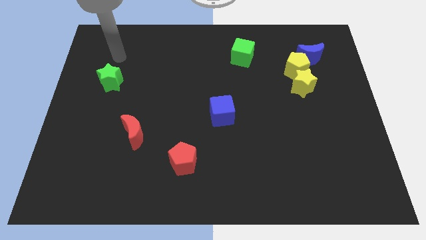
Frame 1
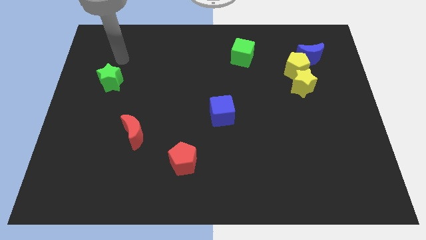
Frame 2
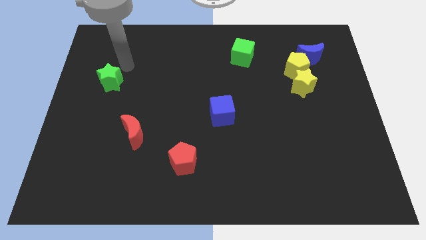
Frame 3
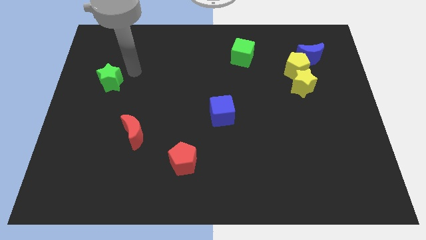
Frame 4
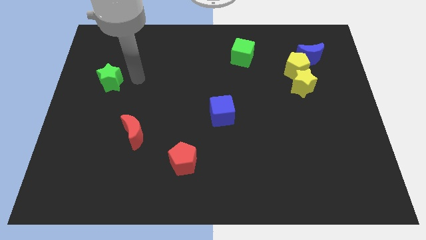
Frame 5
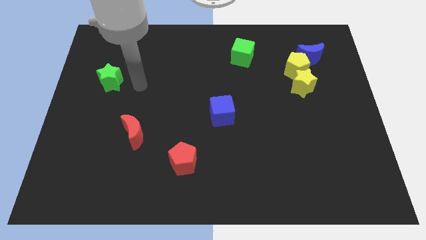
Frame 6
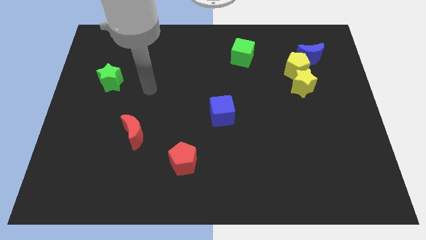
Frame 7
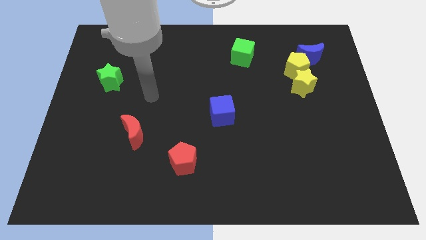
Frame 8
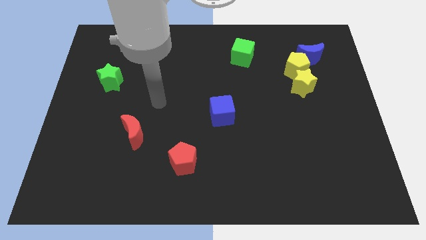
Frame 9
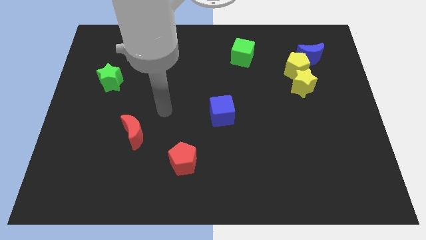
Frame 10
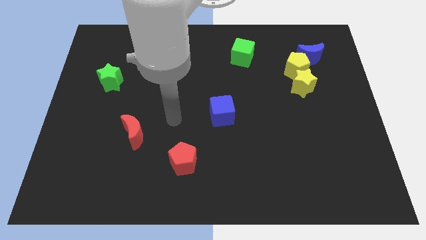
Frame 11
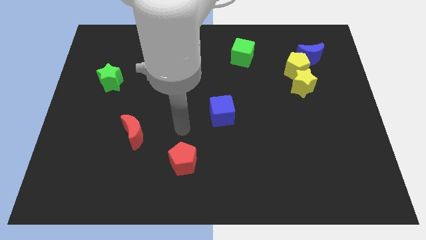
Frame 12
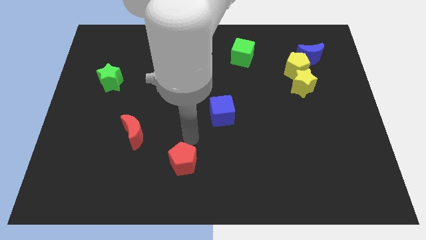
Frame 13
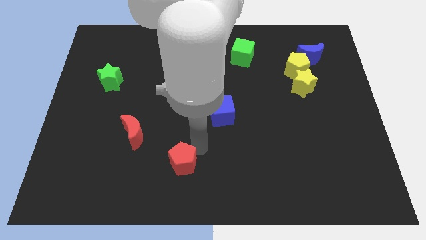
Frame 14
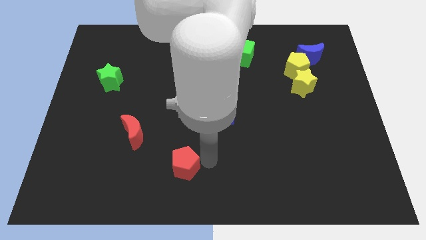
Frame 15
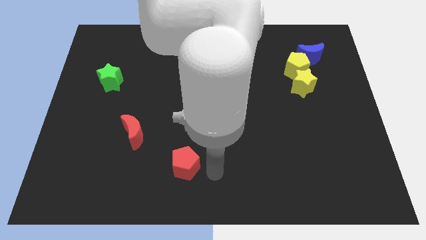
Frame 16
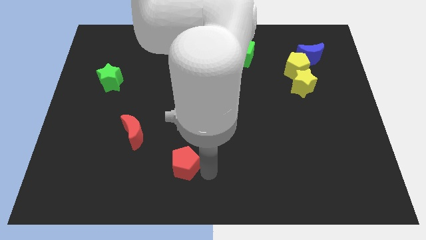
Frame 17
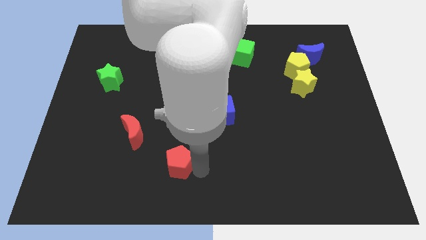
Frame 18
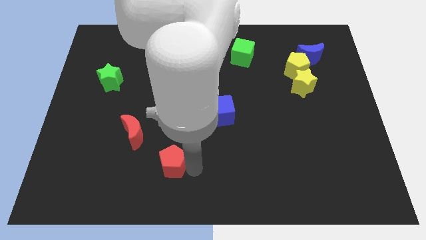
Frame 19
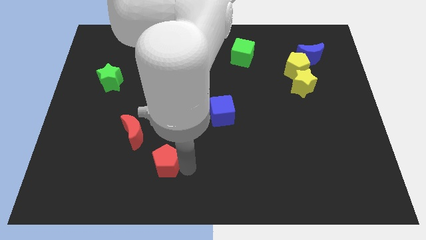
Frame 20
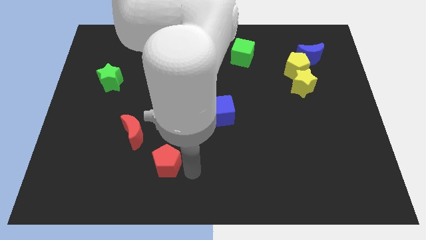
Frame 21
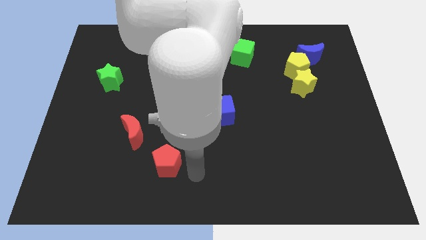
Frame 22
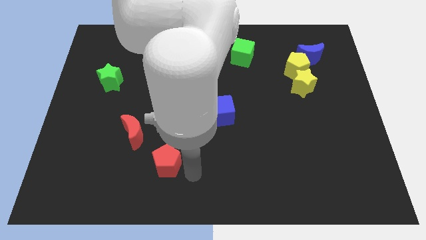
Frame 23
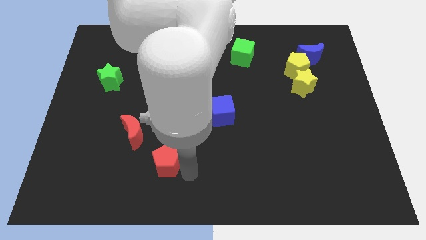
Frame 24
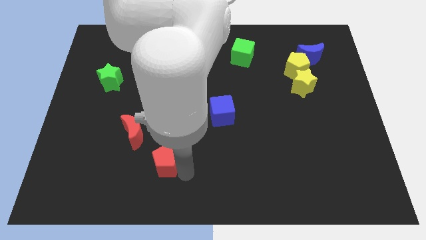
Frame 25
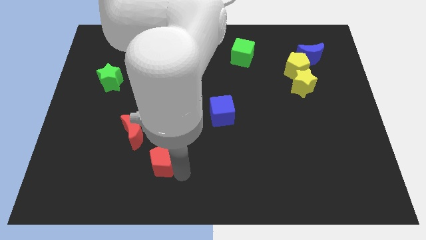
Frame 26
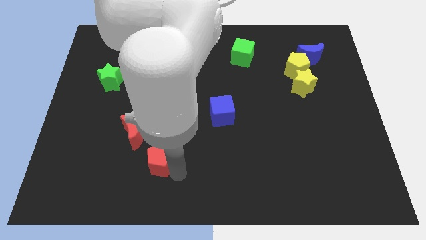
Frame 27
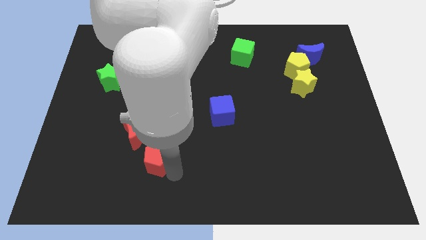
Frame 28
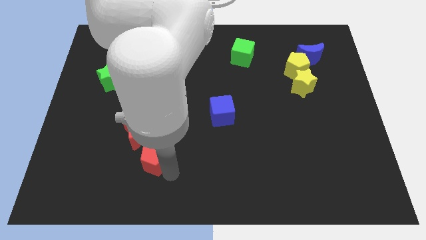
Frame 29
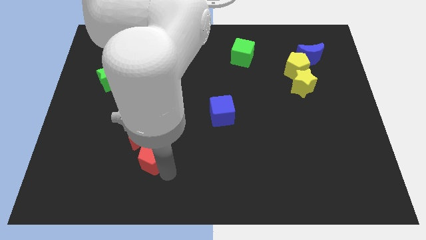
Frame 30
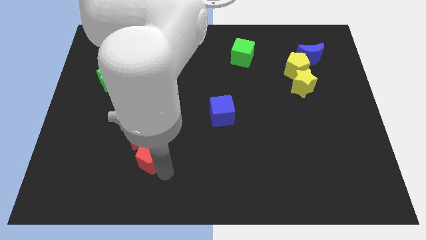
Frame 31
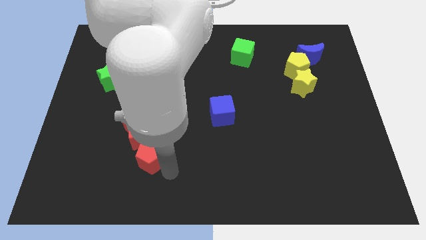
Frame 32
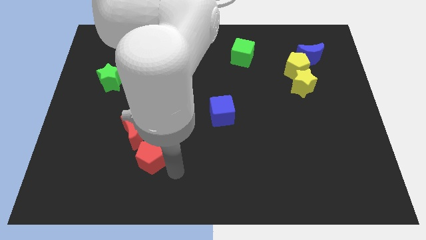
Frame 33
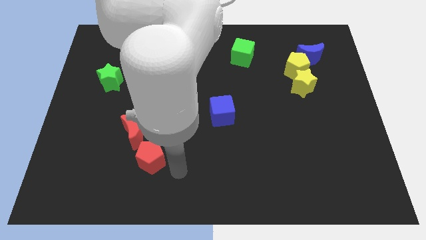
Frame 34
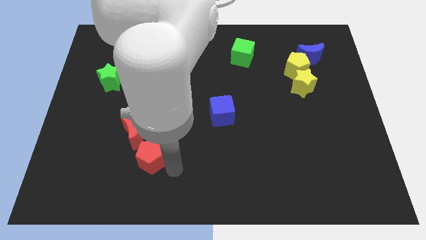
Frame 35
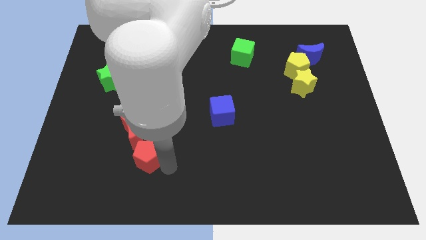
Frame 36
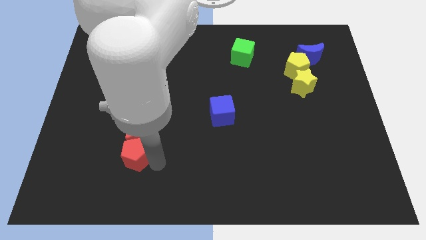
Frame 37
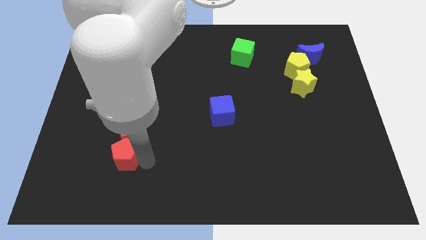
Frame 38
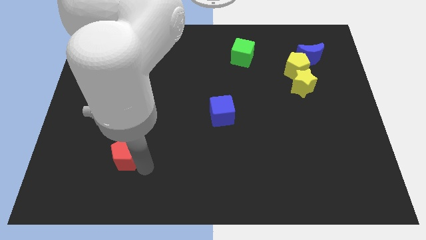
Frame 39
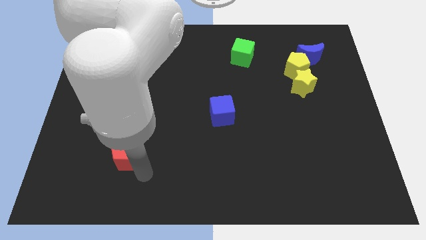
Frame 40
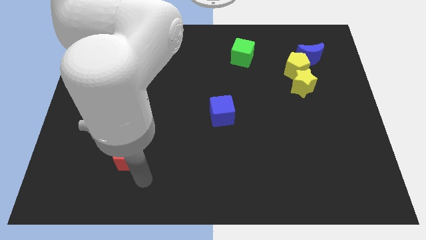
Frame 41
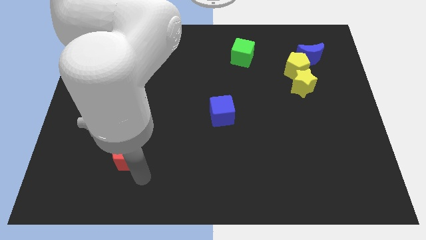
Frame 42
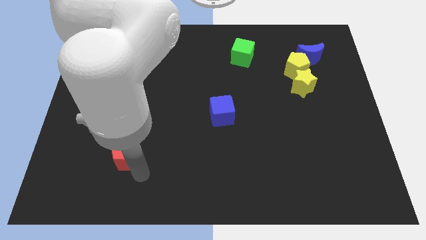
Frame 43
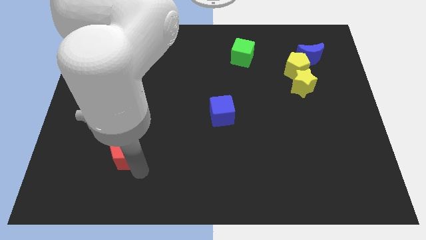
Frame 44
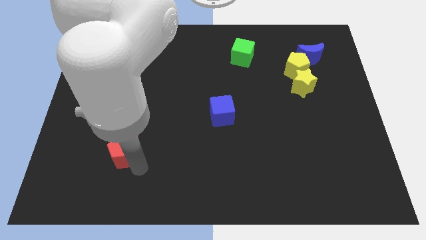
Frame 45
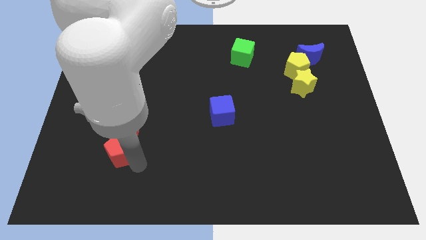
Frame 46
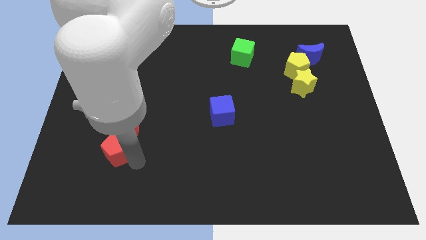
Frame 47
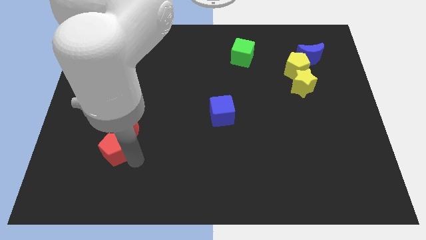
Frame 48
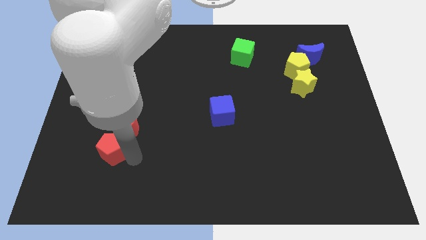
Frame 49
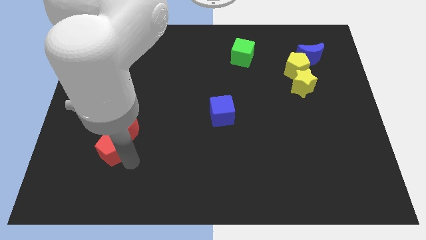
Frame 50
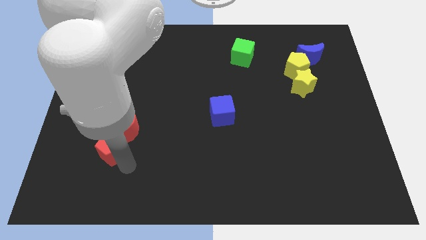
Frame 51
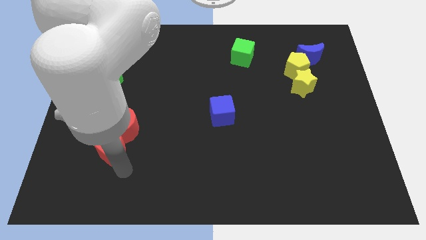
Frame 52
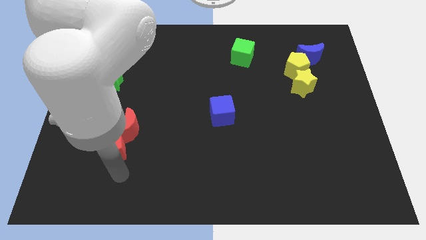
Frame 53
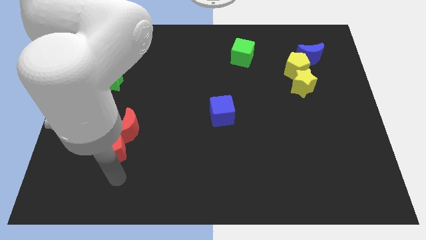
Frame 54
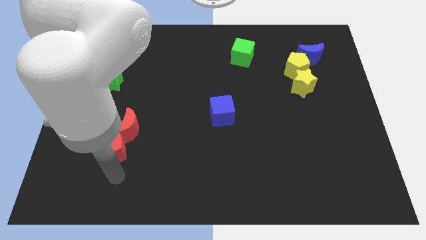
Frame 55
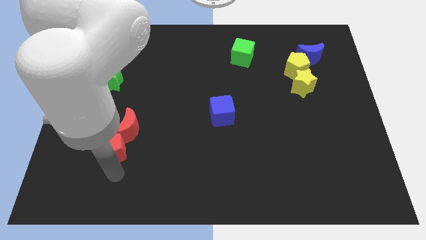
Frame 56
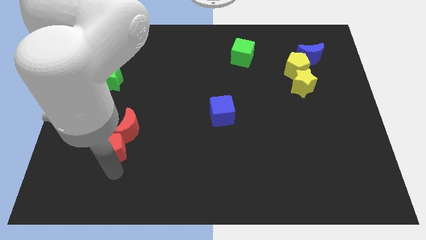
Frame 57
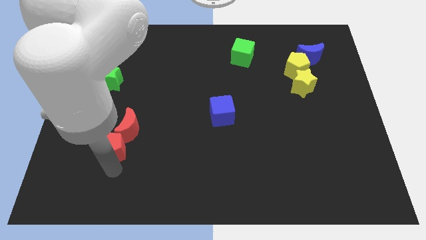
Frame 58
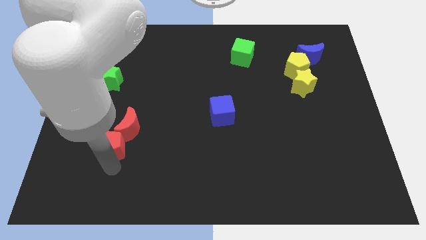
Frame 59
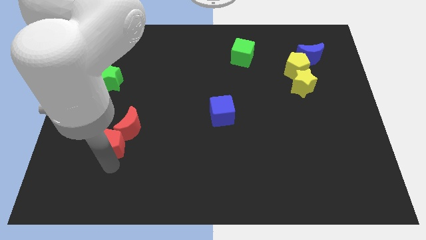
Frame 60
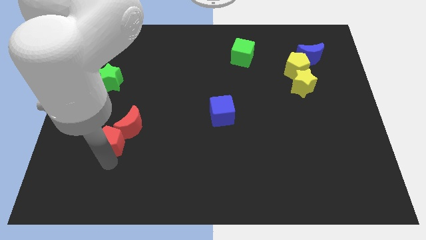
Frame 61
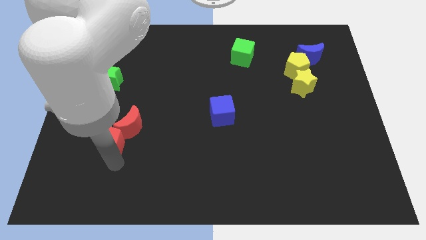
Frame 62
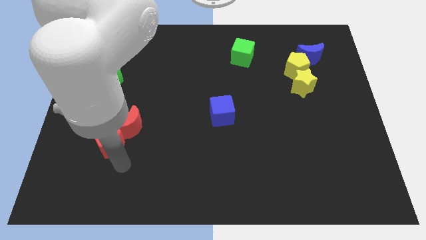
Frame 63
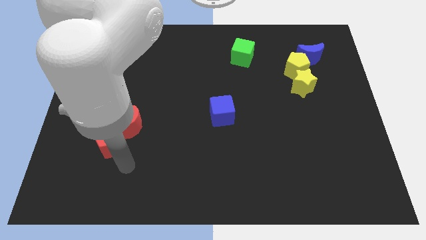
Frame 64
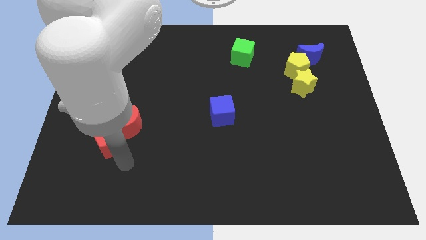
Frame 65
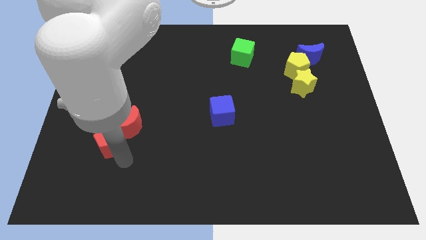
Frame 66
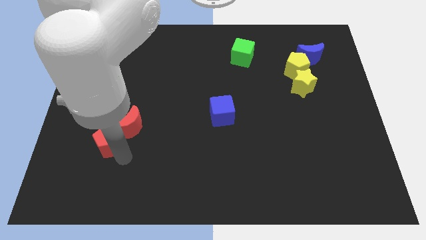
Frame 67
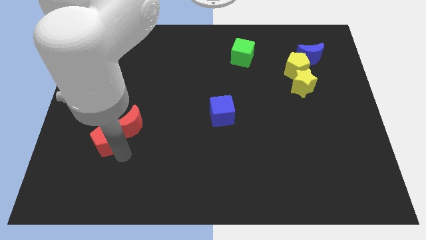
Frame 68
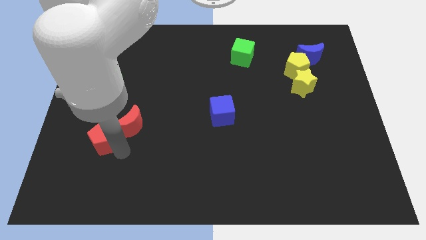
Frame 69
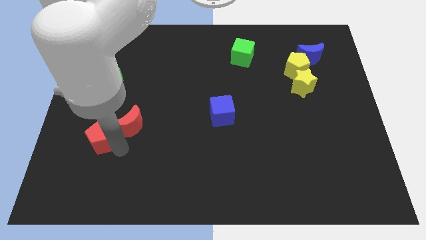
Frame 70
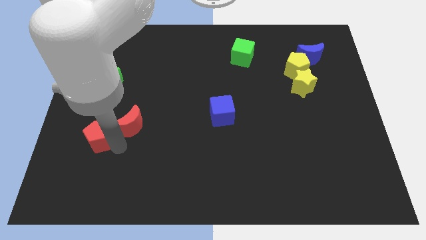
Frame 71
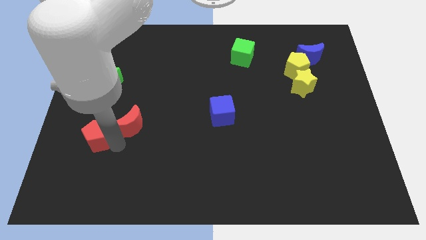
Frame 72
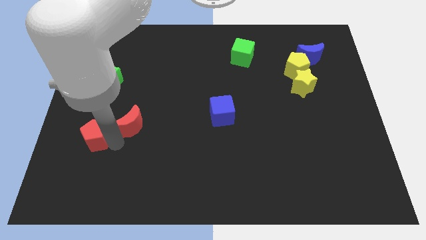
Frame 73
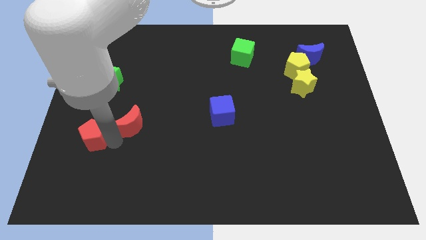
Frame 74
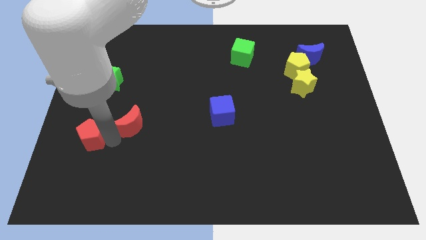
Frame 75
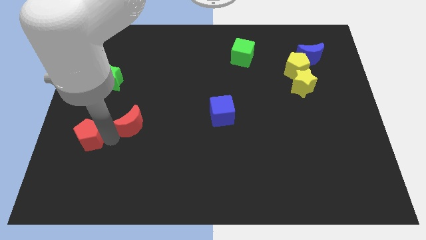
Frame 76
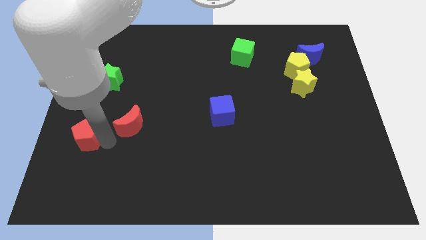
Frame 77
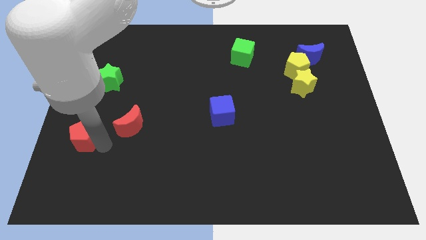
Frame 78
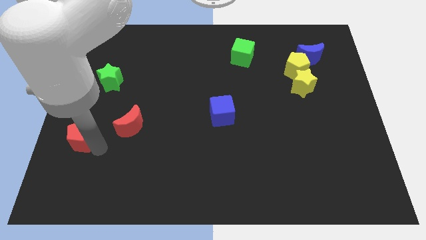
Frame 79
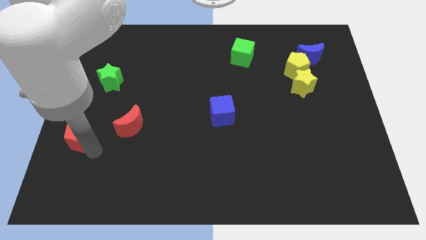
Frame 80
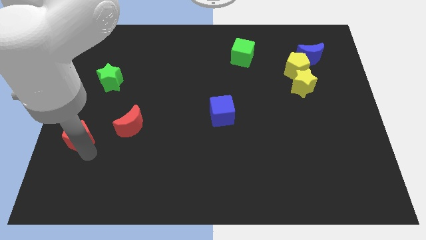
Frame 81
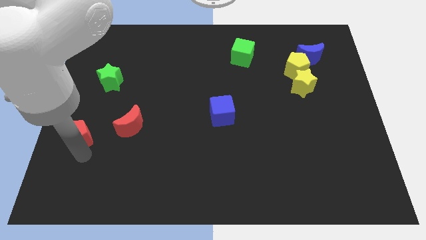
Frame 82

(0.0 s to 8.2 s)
put the red pentagon to the left side
